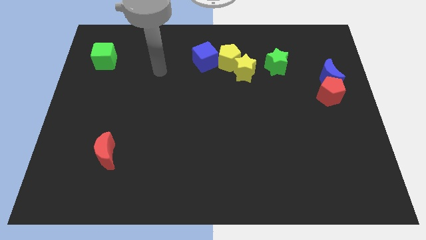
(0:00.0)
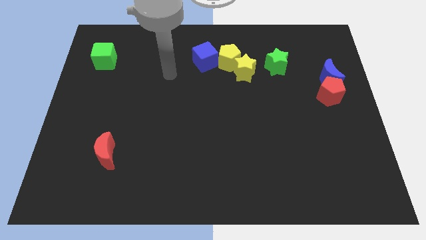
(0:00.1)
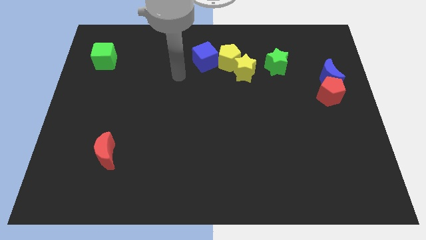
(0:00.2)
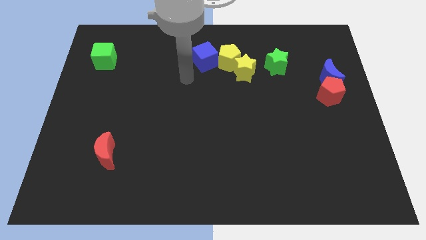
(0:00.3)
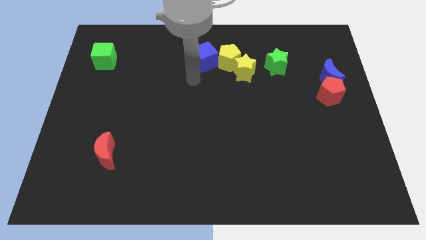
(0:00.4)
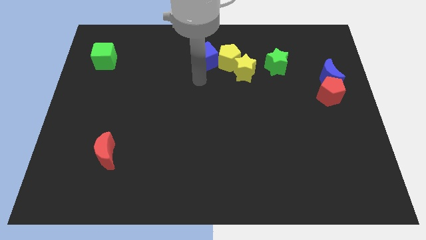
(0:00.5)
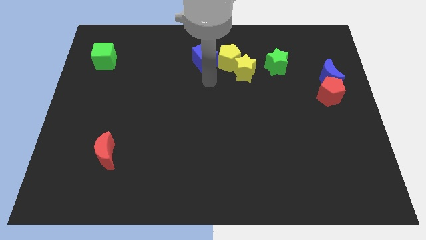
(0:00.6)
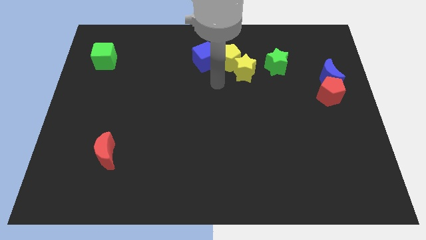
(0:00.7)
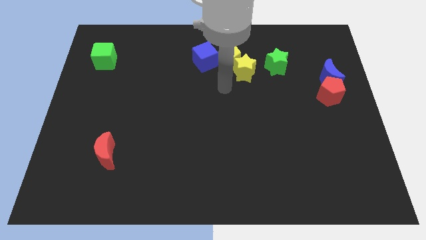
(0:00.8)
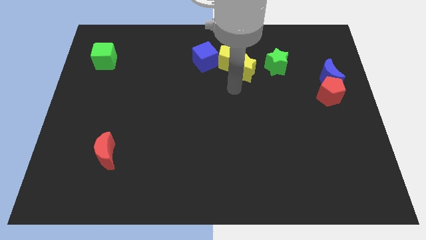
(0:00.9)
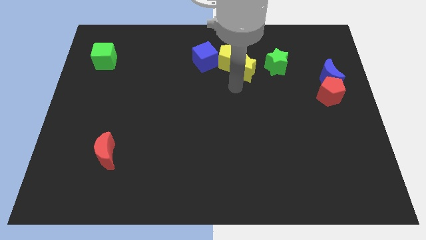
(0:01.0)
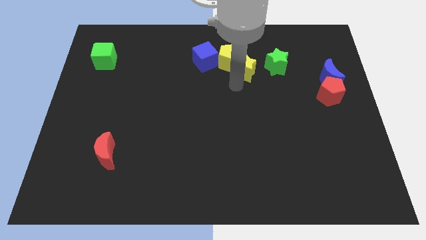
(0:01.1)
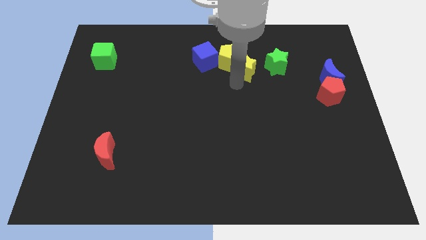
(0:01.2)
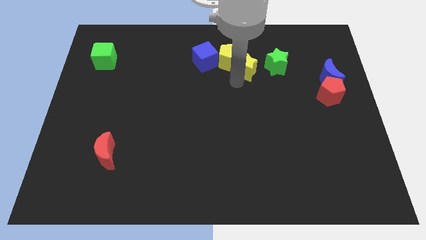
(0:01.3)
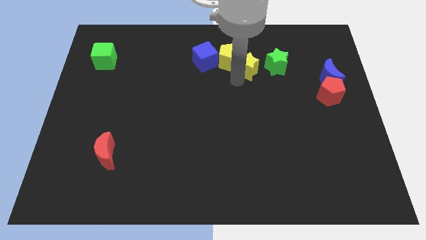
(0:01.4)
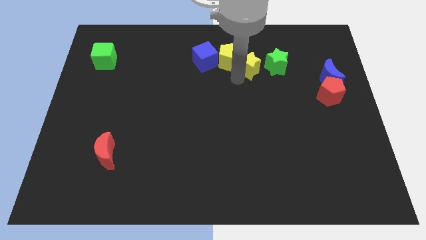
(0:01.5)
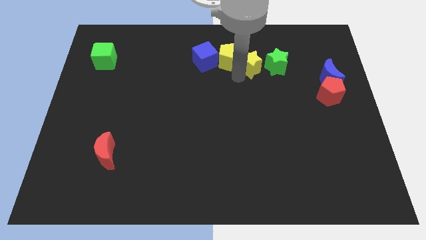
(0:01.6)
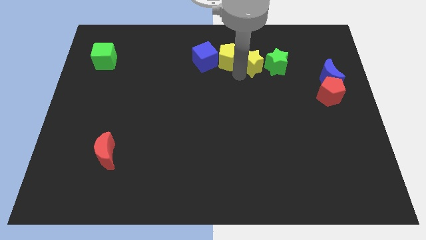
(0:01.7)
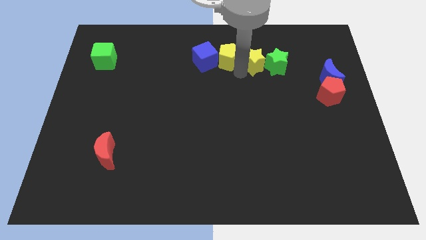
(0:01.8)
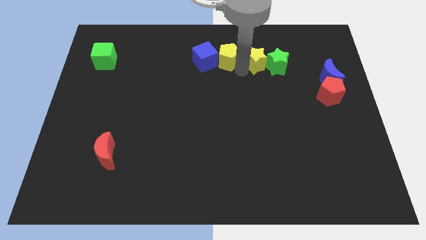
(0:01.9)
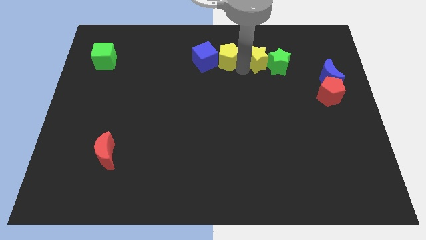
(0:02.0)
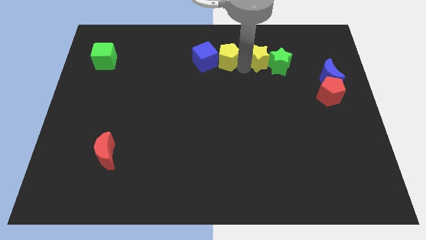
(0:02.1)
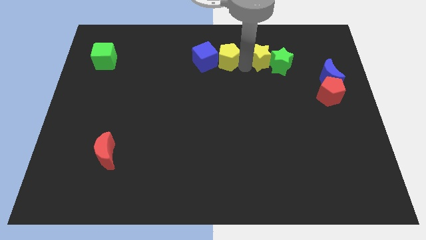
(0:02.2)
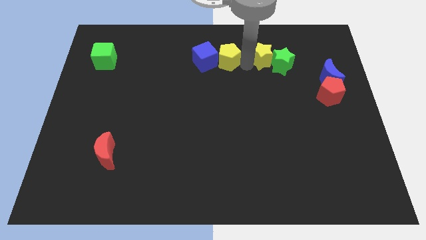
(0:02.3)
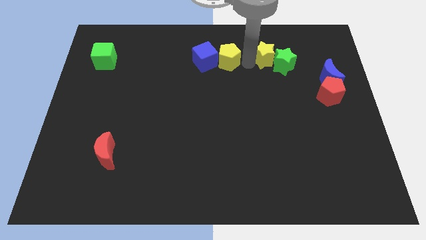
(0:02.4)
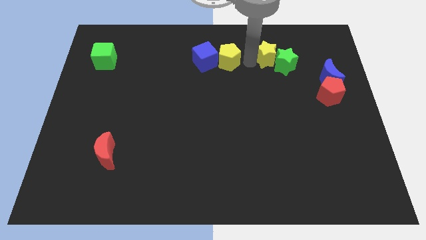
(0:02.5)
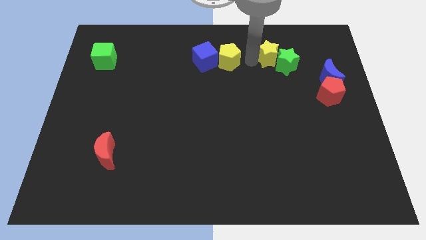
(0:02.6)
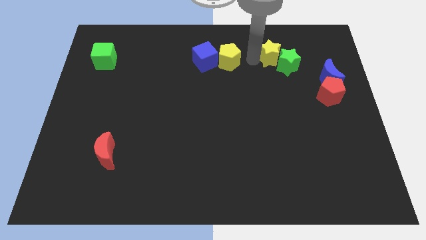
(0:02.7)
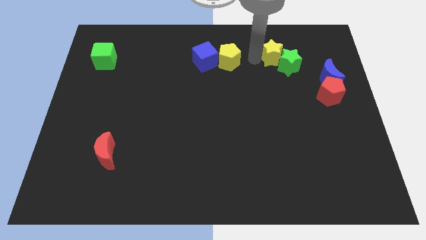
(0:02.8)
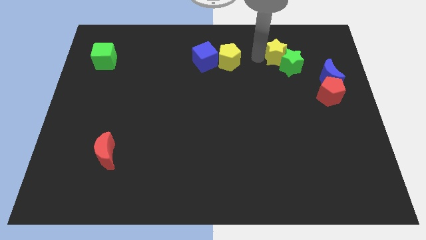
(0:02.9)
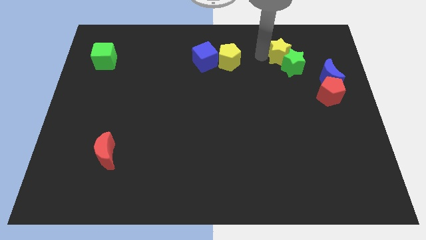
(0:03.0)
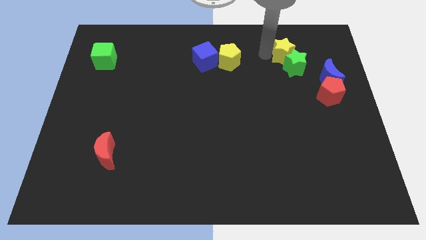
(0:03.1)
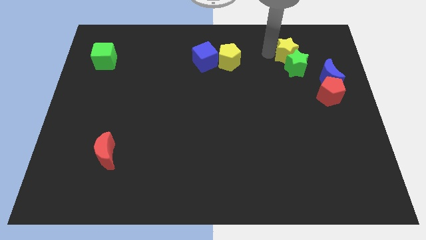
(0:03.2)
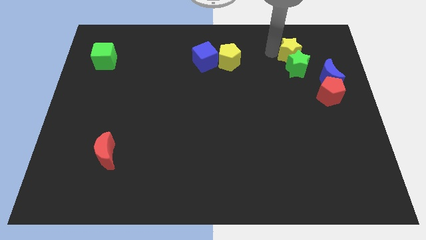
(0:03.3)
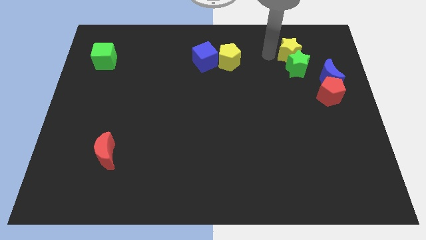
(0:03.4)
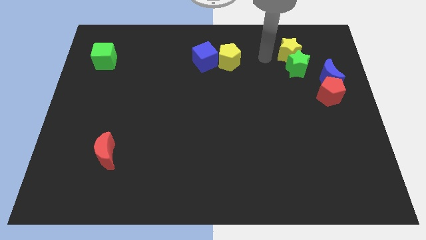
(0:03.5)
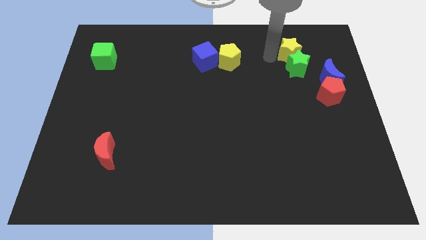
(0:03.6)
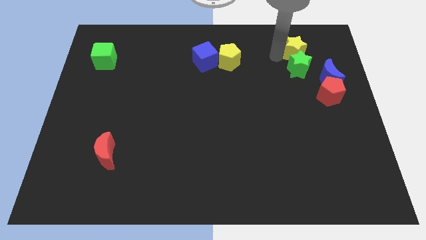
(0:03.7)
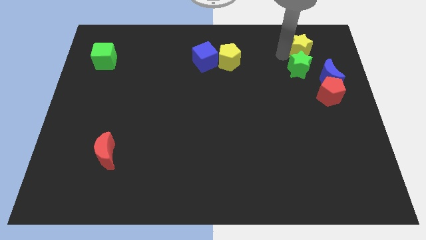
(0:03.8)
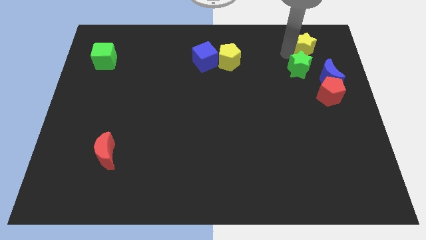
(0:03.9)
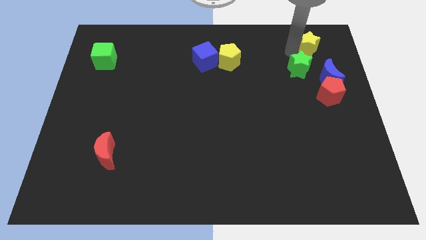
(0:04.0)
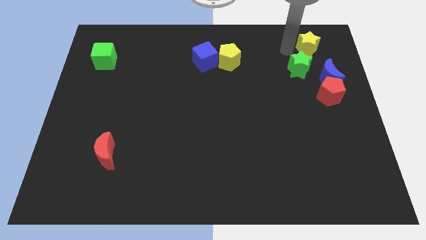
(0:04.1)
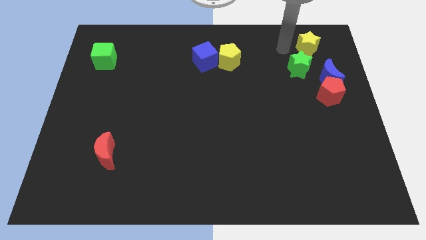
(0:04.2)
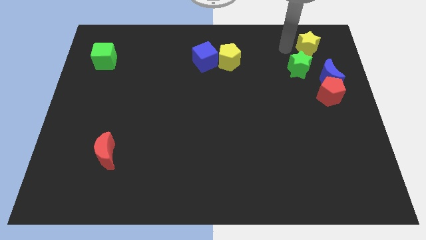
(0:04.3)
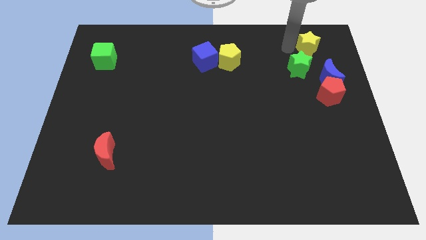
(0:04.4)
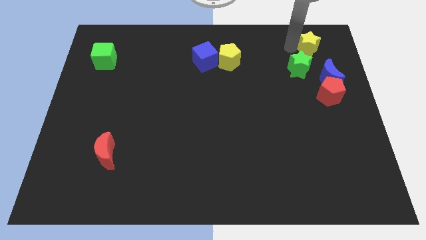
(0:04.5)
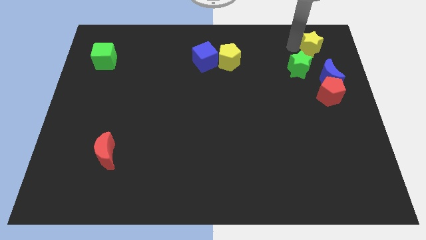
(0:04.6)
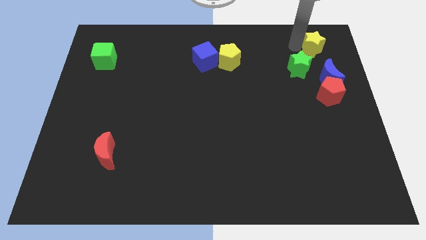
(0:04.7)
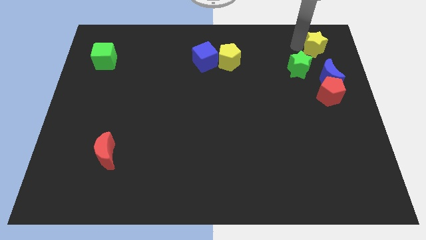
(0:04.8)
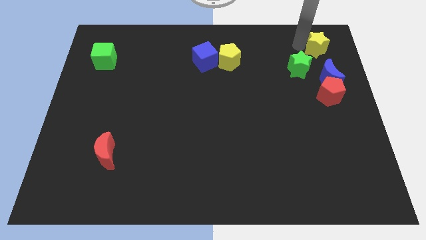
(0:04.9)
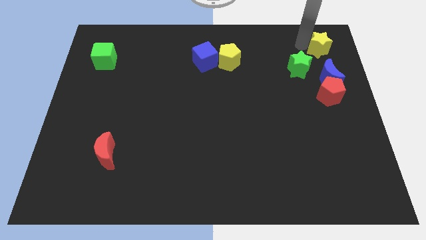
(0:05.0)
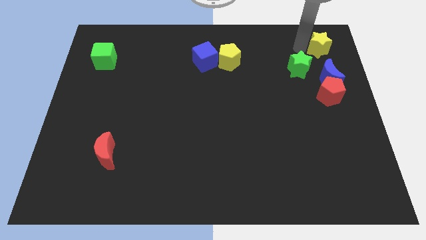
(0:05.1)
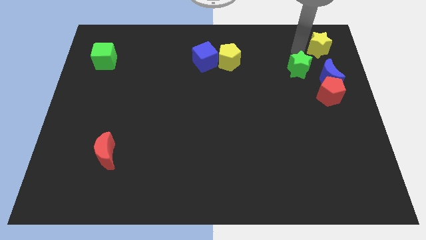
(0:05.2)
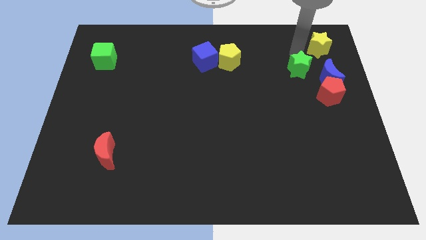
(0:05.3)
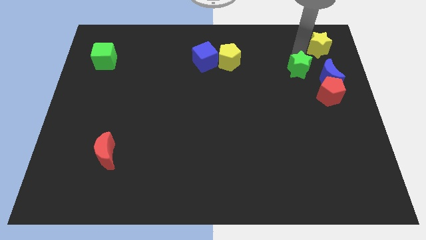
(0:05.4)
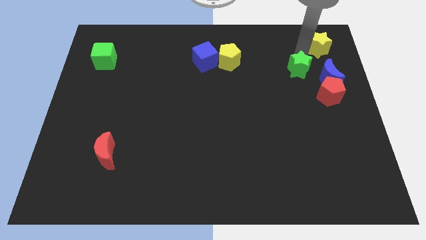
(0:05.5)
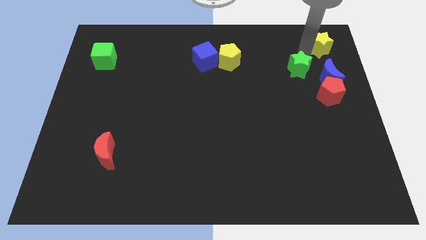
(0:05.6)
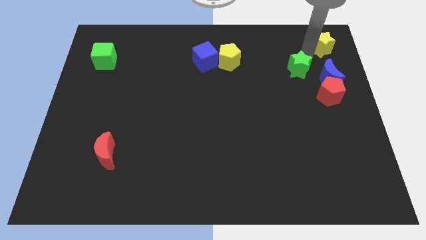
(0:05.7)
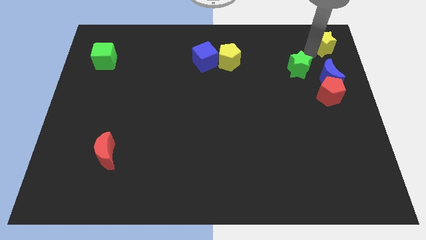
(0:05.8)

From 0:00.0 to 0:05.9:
slide the yellow star to the upper right corner
